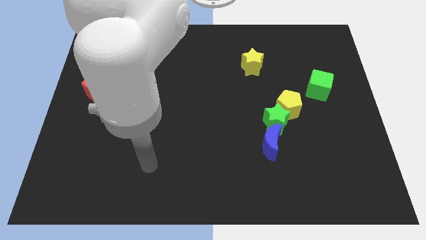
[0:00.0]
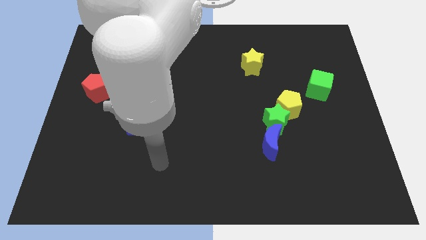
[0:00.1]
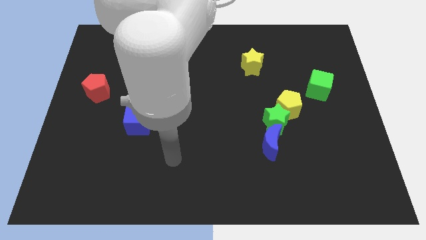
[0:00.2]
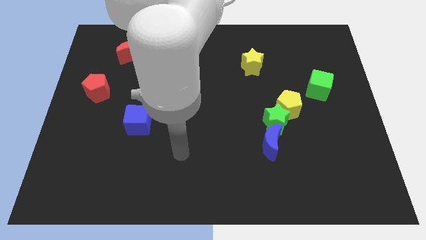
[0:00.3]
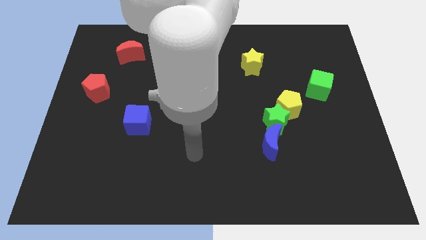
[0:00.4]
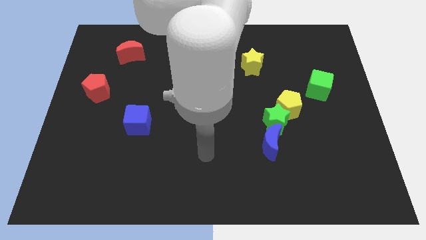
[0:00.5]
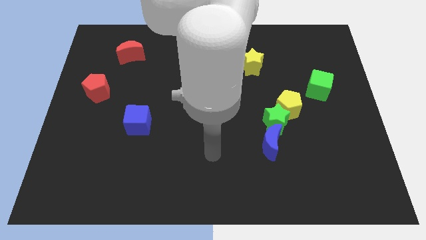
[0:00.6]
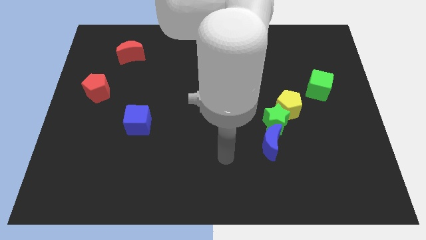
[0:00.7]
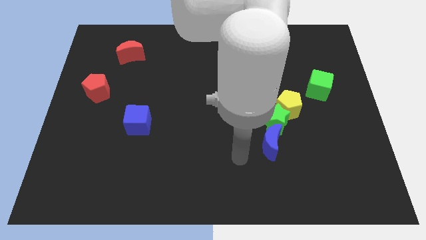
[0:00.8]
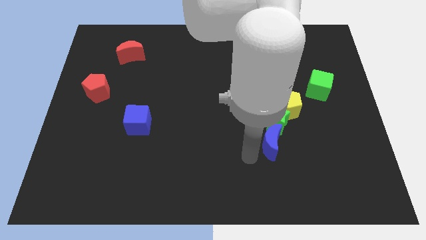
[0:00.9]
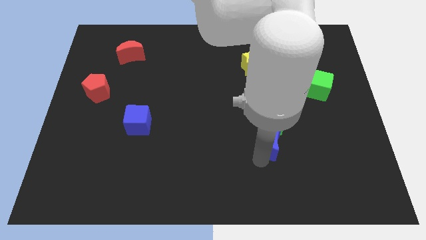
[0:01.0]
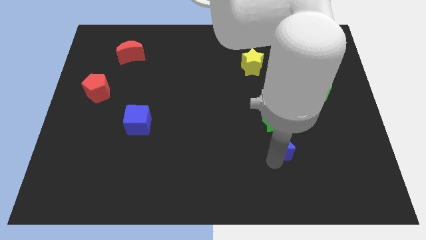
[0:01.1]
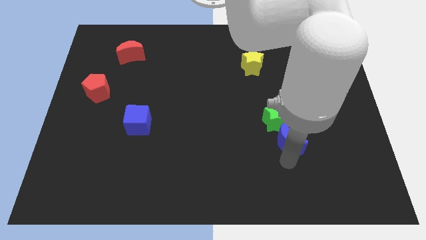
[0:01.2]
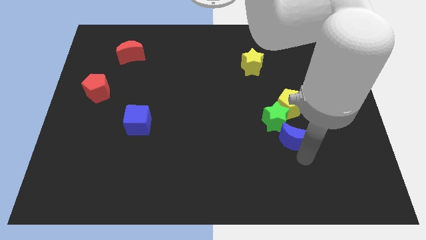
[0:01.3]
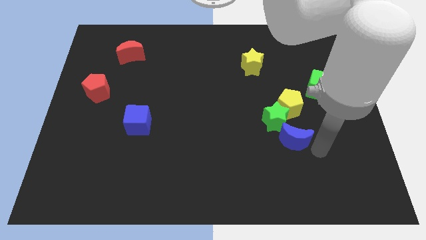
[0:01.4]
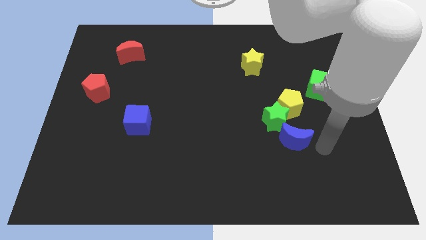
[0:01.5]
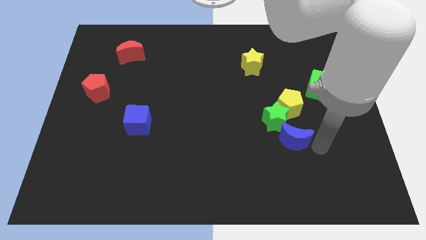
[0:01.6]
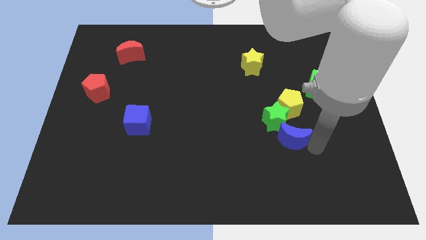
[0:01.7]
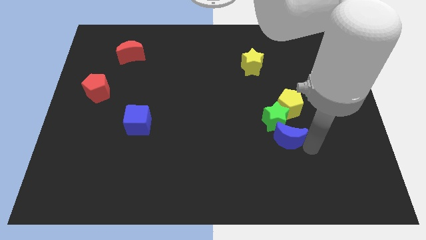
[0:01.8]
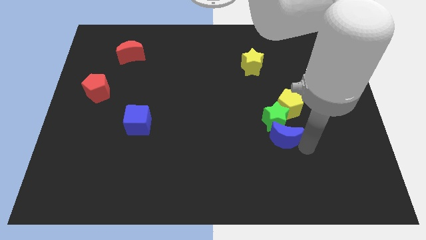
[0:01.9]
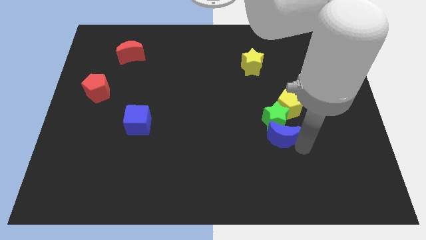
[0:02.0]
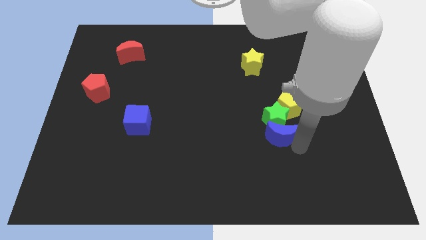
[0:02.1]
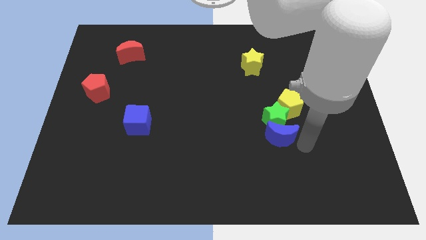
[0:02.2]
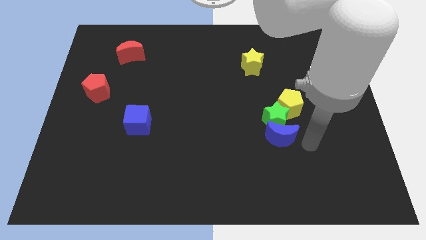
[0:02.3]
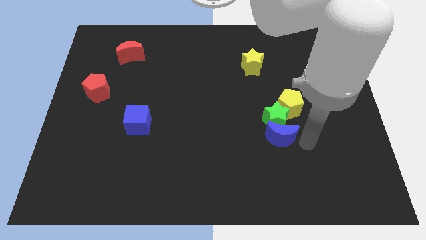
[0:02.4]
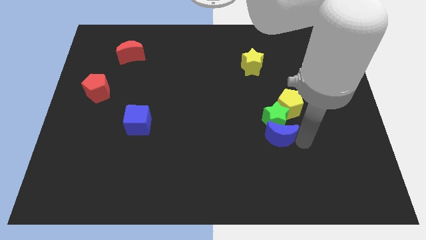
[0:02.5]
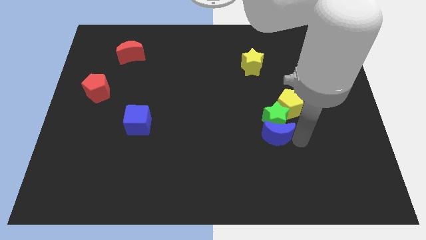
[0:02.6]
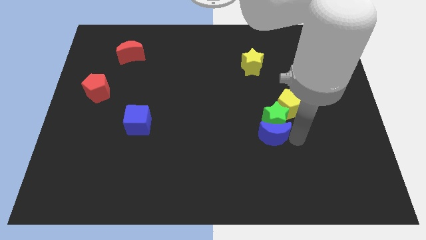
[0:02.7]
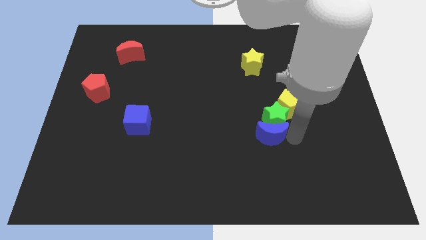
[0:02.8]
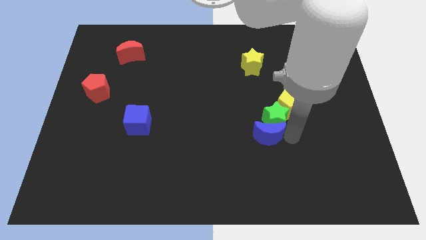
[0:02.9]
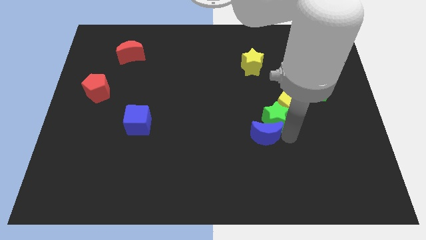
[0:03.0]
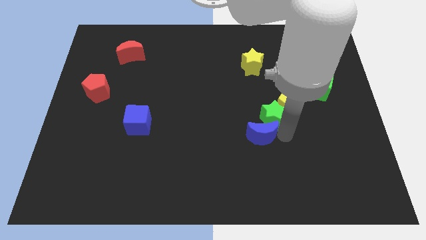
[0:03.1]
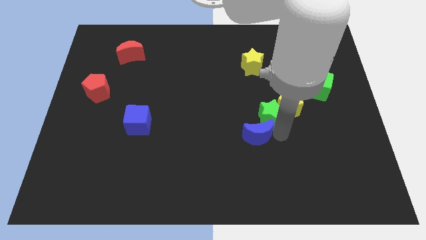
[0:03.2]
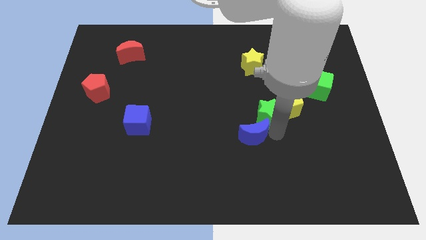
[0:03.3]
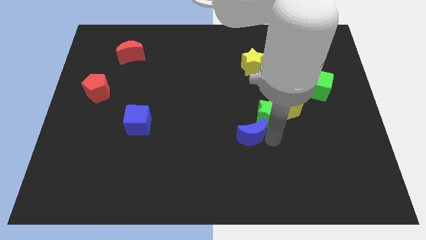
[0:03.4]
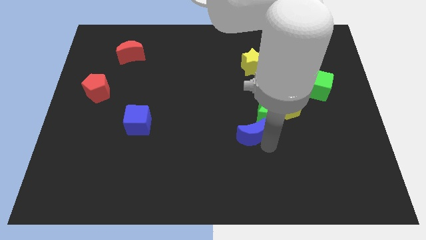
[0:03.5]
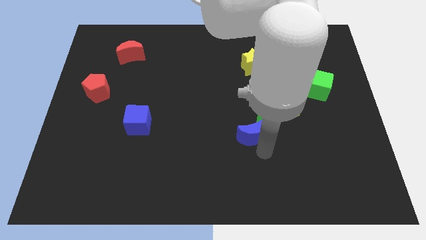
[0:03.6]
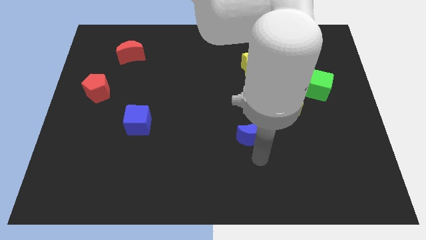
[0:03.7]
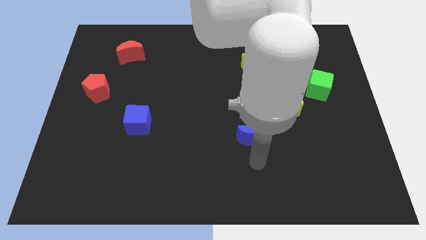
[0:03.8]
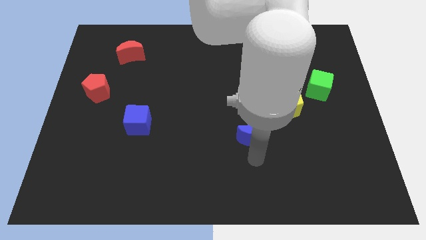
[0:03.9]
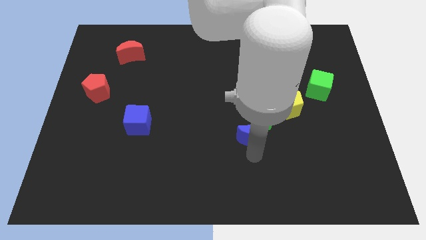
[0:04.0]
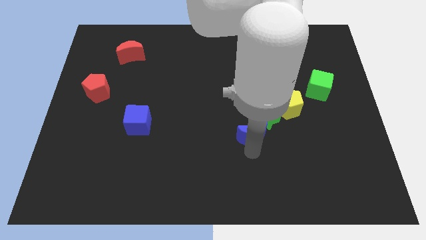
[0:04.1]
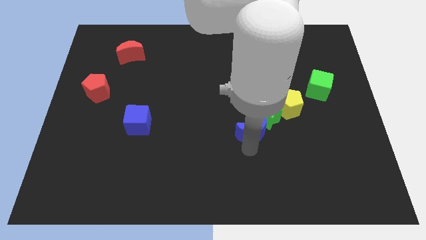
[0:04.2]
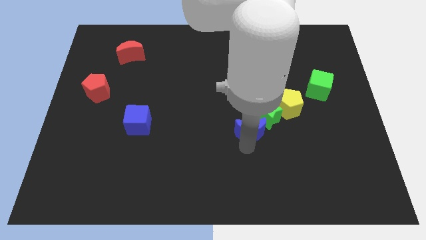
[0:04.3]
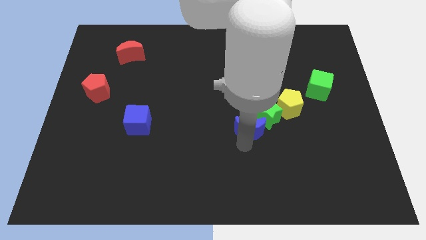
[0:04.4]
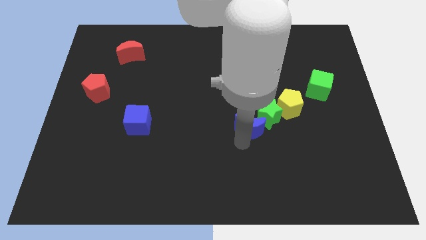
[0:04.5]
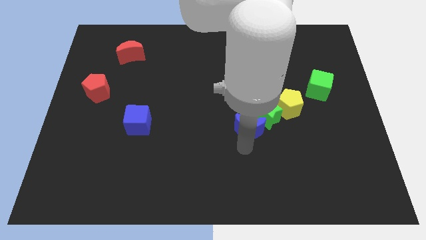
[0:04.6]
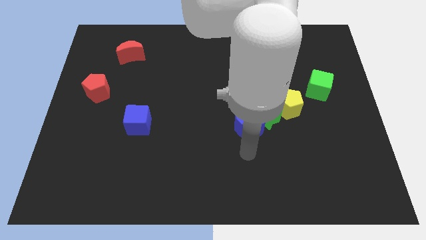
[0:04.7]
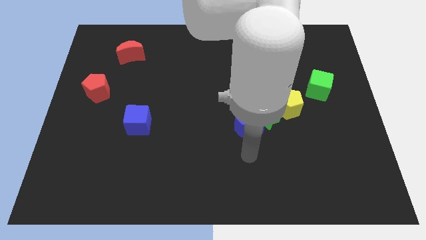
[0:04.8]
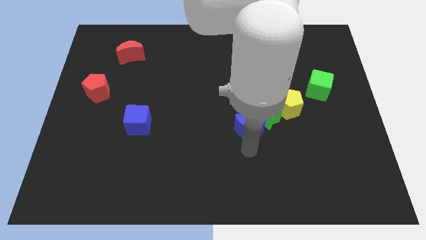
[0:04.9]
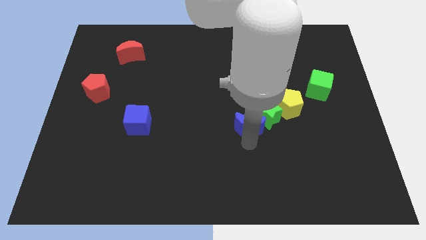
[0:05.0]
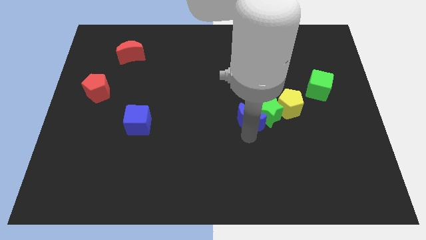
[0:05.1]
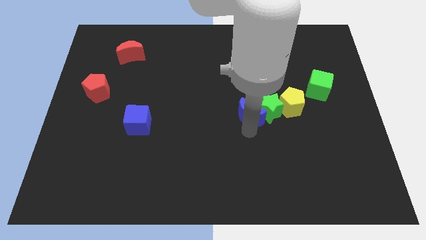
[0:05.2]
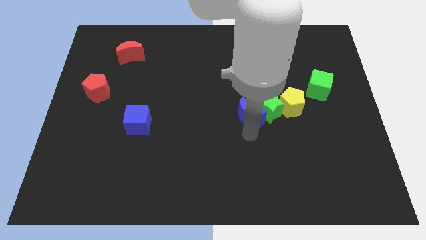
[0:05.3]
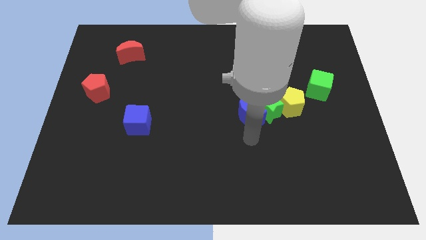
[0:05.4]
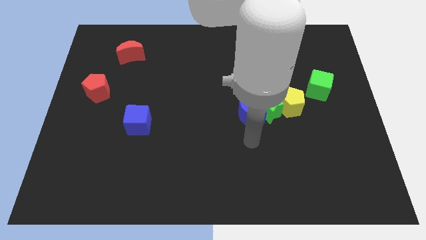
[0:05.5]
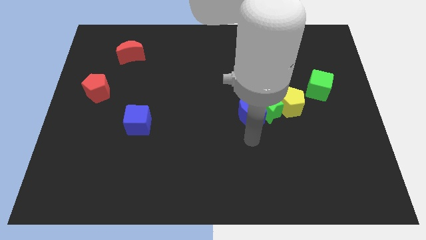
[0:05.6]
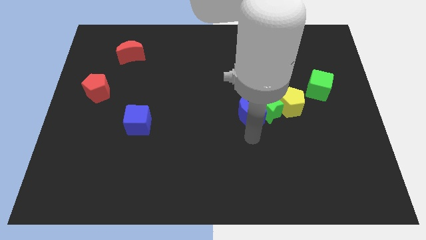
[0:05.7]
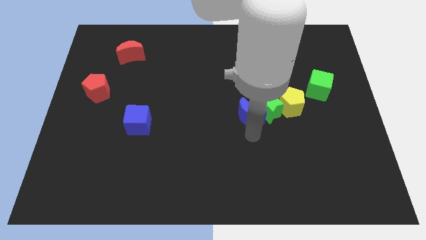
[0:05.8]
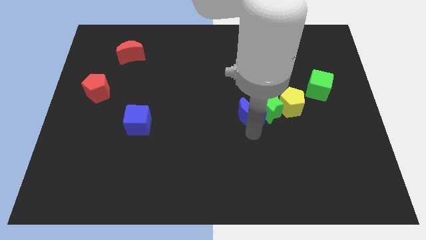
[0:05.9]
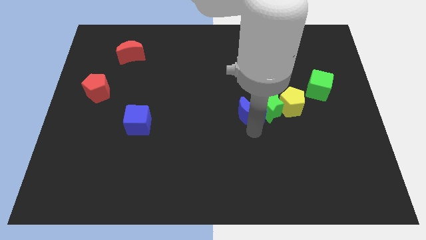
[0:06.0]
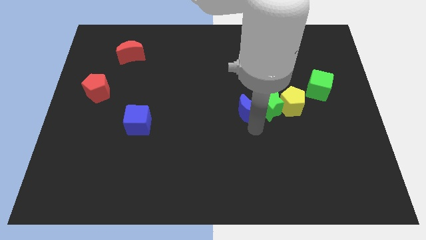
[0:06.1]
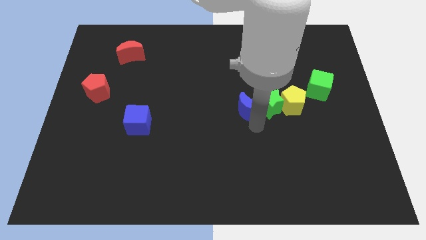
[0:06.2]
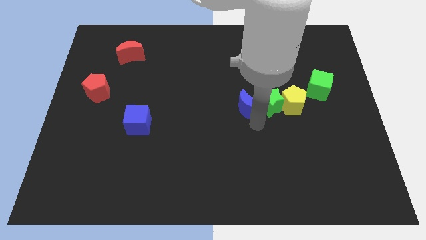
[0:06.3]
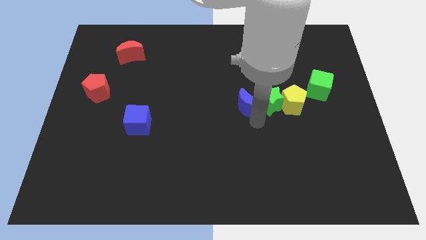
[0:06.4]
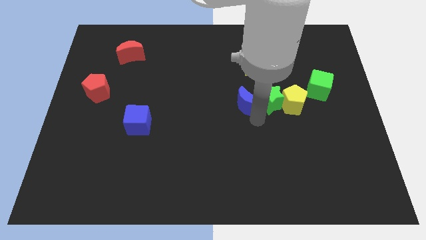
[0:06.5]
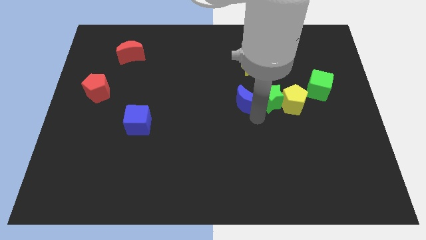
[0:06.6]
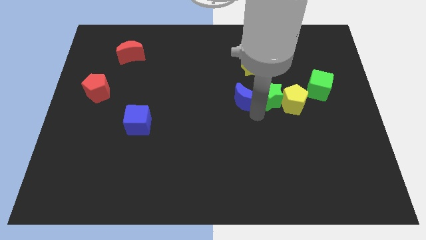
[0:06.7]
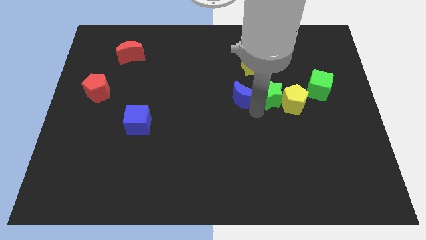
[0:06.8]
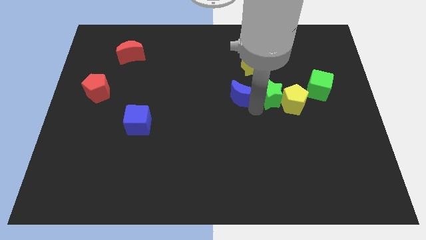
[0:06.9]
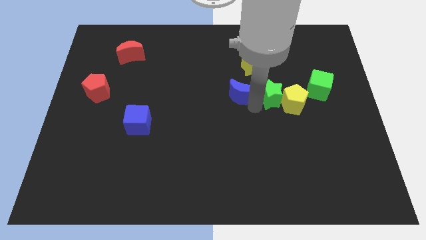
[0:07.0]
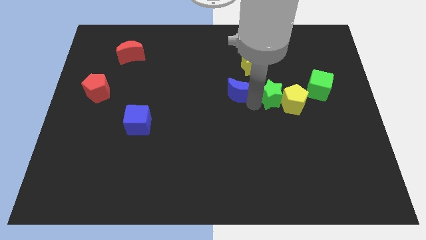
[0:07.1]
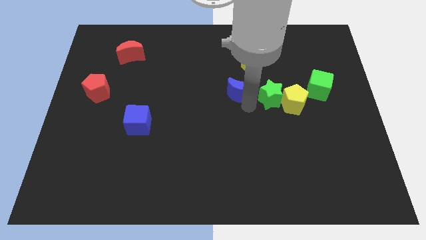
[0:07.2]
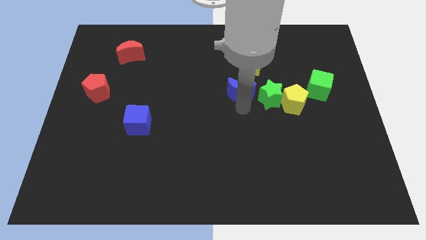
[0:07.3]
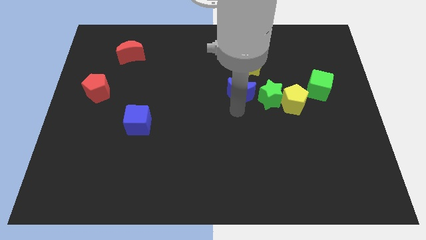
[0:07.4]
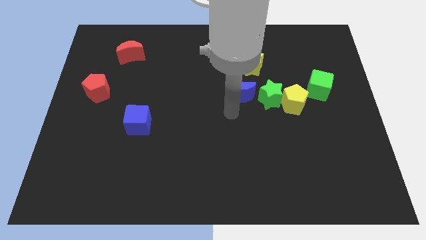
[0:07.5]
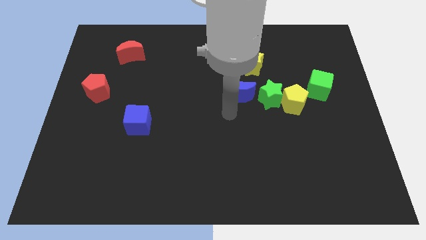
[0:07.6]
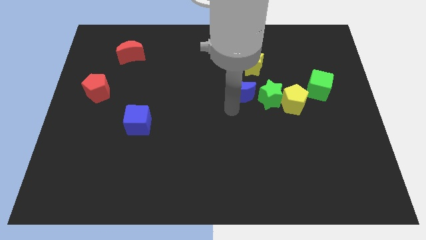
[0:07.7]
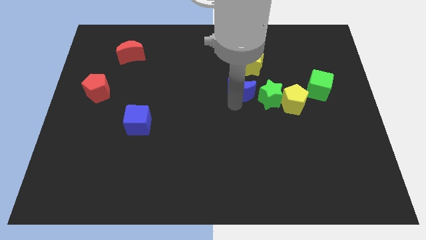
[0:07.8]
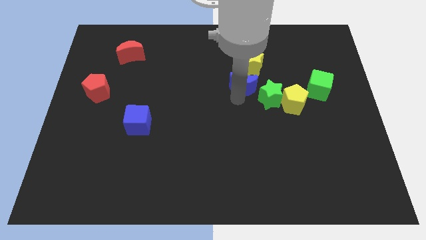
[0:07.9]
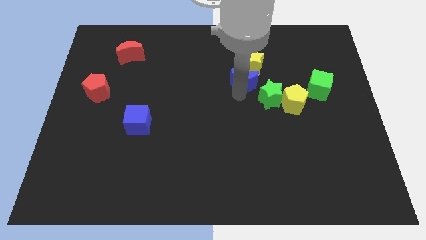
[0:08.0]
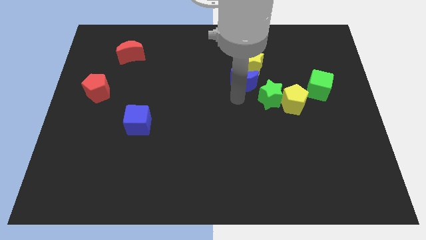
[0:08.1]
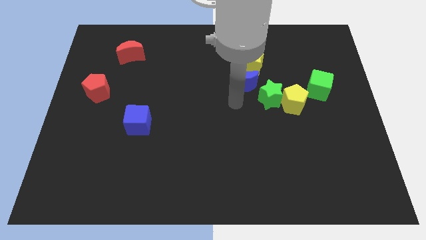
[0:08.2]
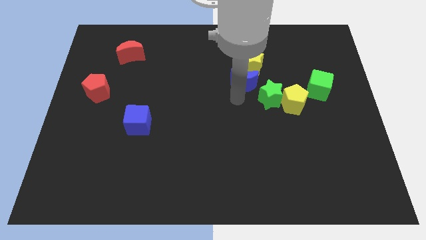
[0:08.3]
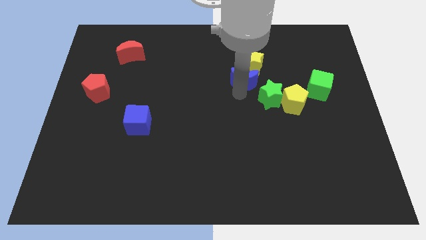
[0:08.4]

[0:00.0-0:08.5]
slide the blue moon to the yellow star
